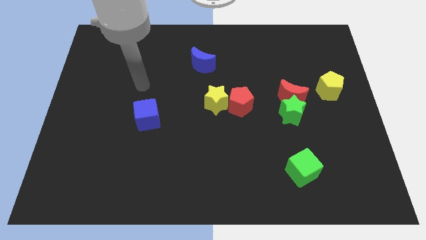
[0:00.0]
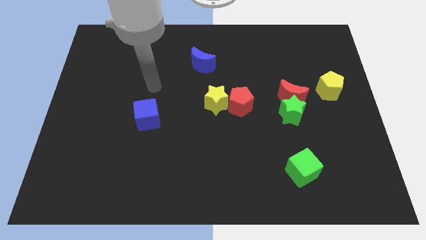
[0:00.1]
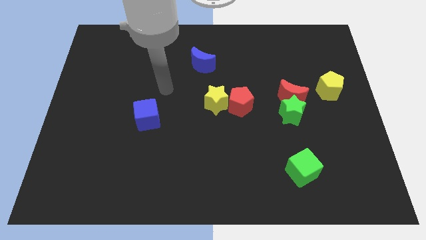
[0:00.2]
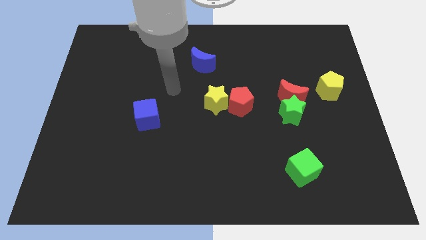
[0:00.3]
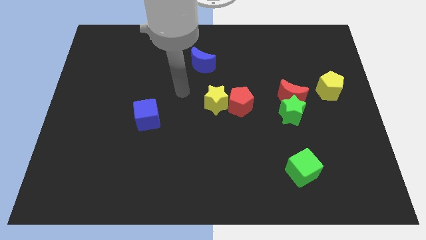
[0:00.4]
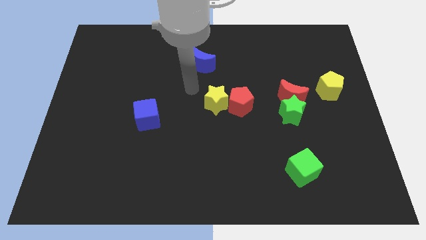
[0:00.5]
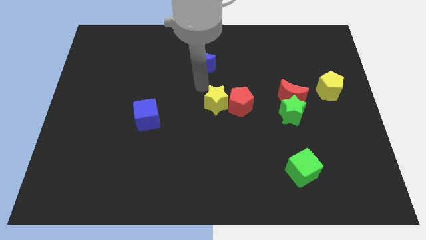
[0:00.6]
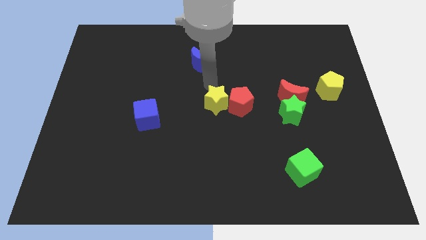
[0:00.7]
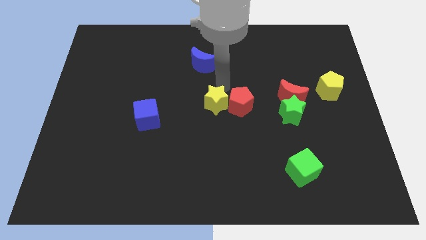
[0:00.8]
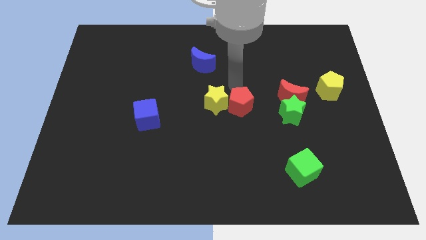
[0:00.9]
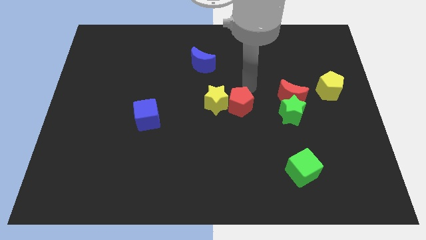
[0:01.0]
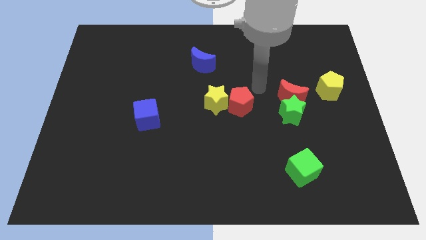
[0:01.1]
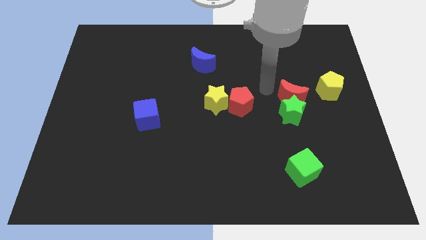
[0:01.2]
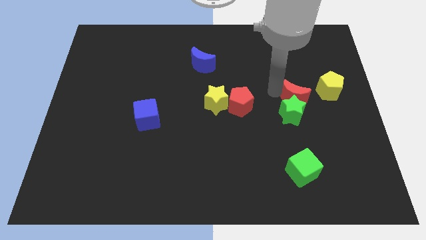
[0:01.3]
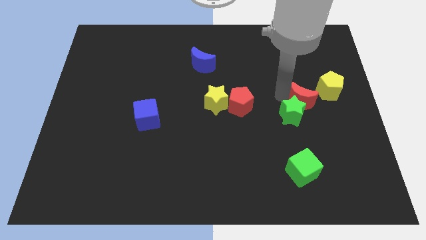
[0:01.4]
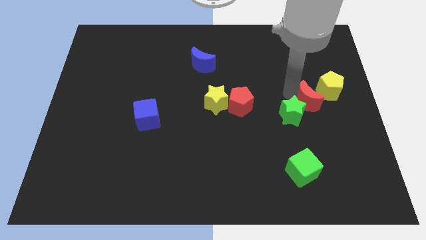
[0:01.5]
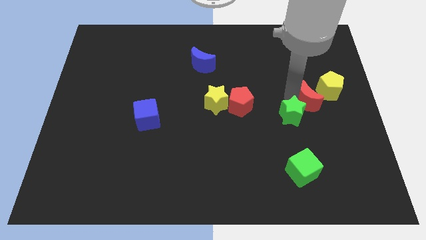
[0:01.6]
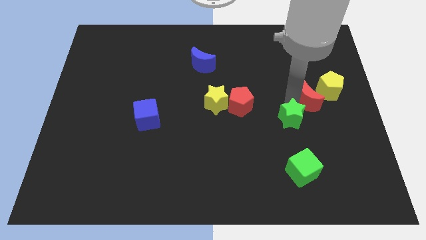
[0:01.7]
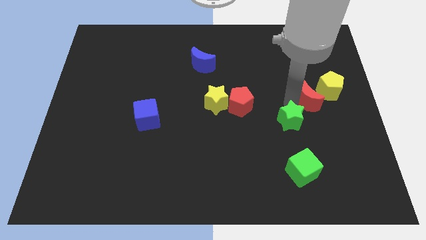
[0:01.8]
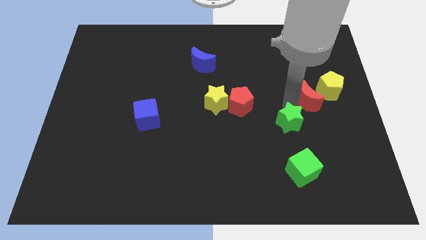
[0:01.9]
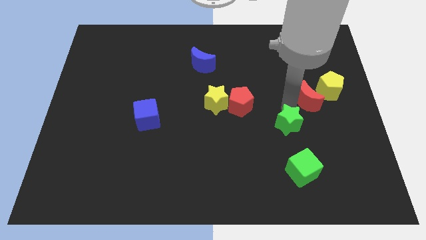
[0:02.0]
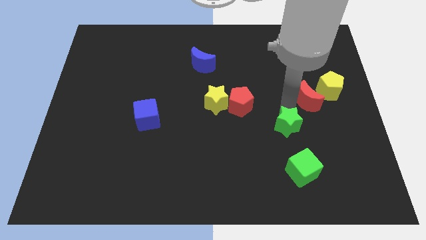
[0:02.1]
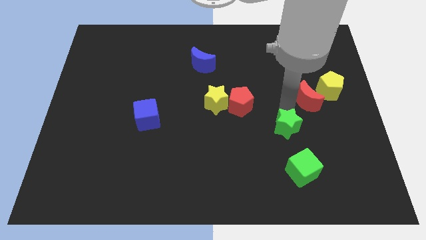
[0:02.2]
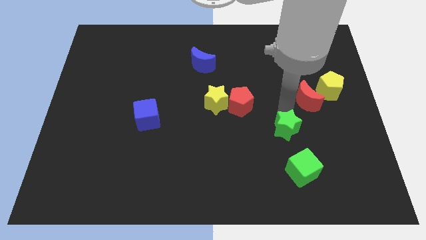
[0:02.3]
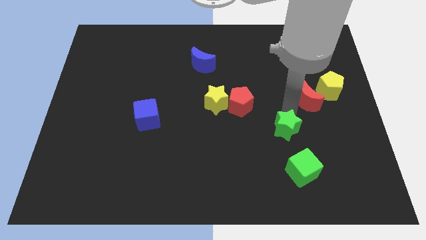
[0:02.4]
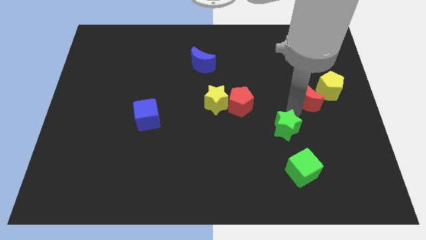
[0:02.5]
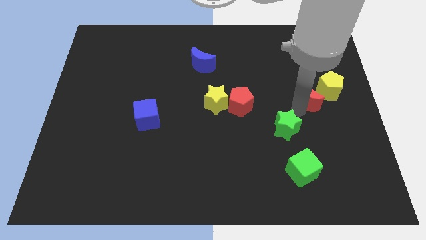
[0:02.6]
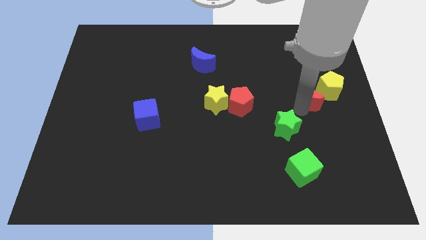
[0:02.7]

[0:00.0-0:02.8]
pull the green star apart from the red moon

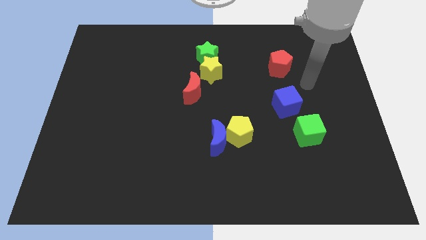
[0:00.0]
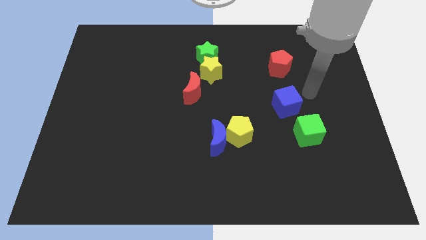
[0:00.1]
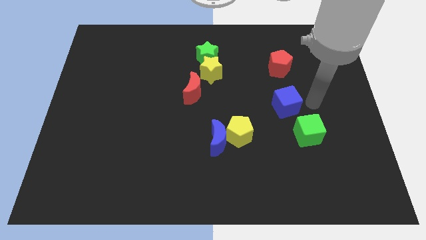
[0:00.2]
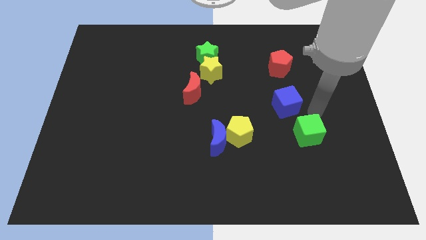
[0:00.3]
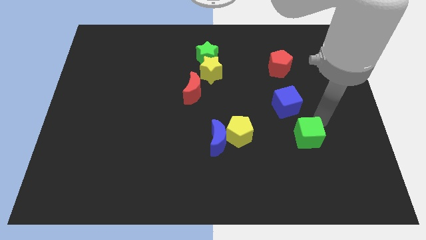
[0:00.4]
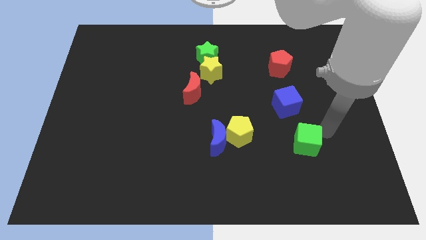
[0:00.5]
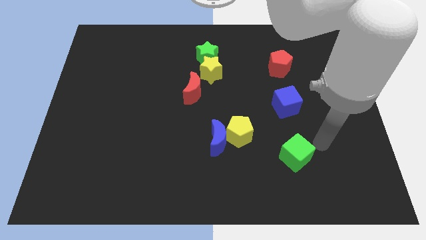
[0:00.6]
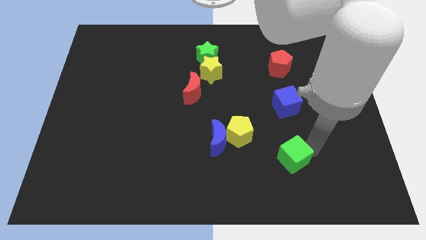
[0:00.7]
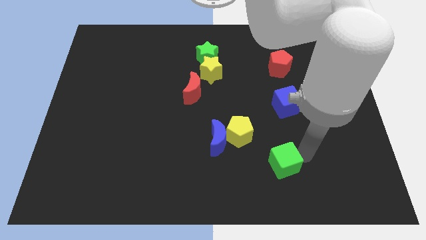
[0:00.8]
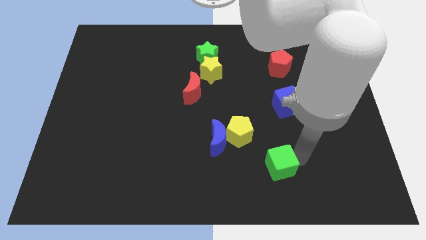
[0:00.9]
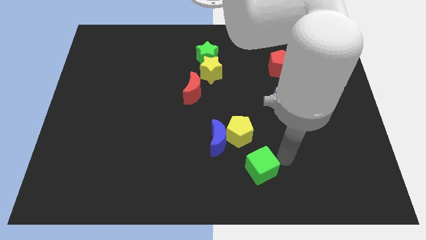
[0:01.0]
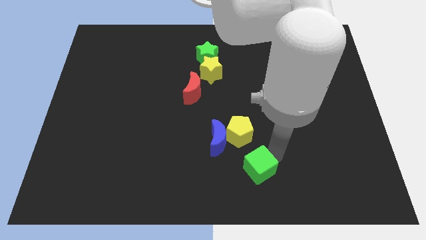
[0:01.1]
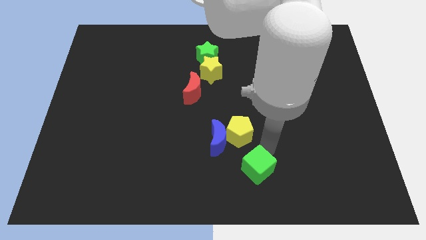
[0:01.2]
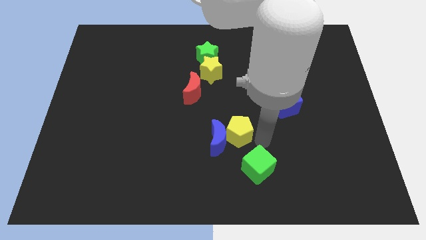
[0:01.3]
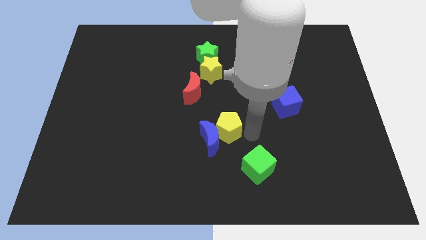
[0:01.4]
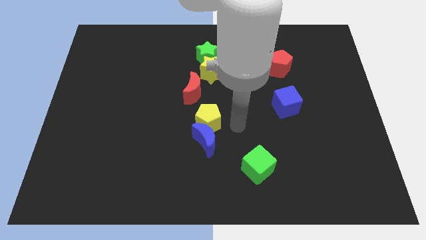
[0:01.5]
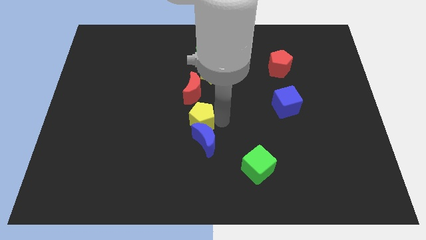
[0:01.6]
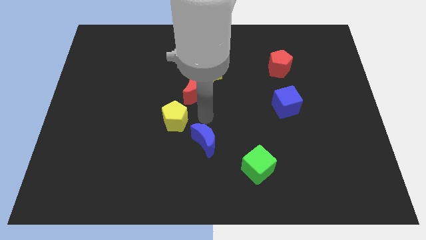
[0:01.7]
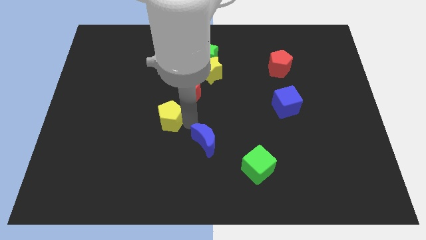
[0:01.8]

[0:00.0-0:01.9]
separate the blue moon from the yellow pentagon

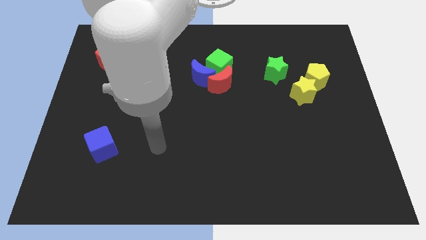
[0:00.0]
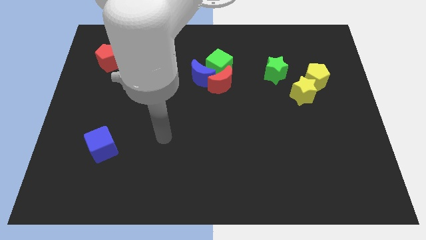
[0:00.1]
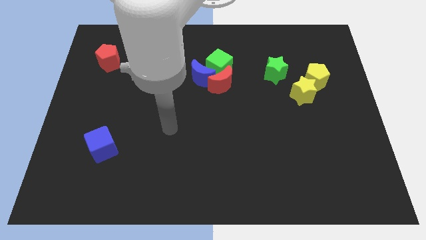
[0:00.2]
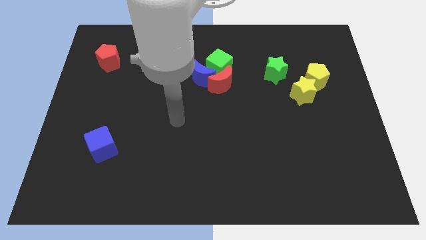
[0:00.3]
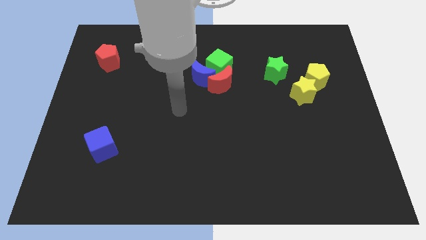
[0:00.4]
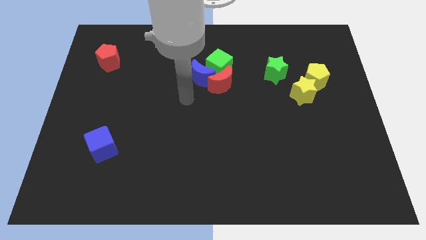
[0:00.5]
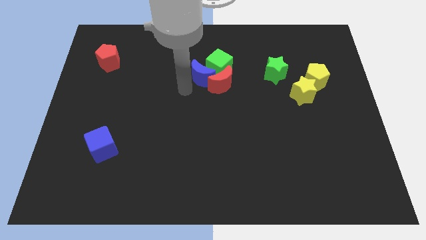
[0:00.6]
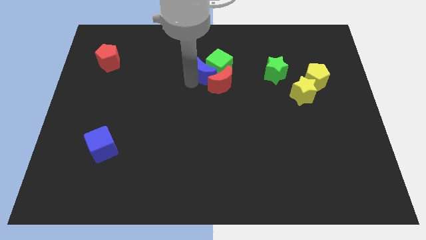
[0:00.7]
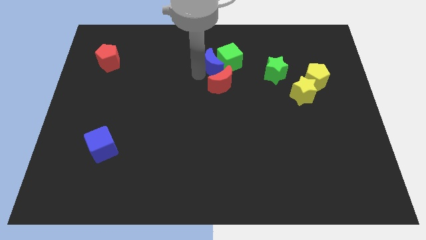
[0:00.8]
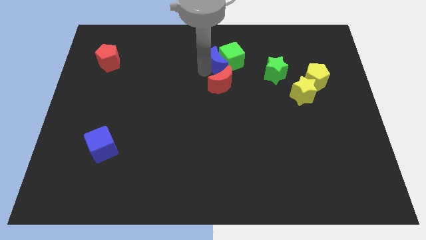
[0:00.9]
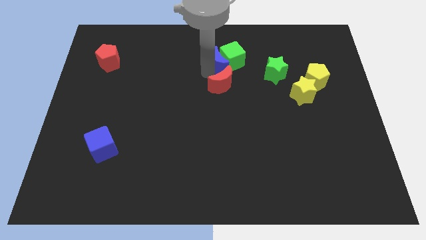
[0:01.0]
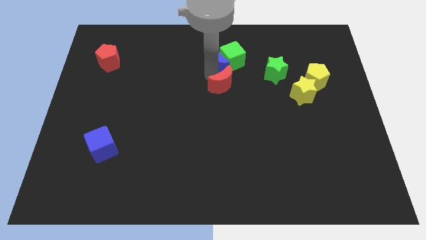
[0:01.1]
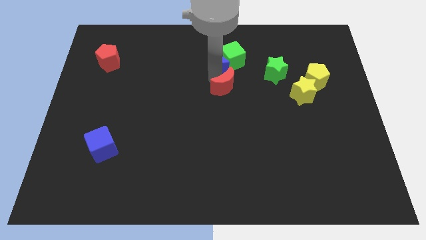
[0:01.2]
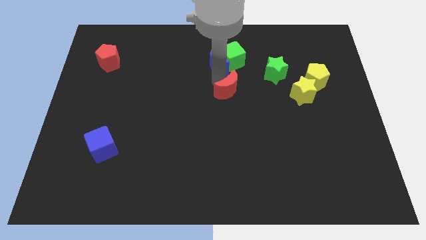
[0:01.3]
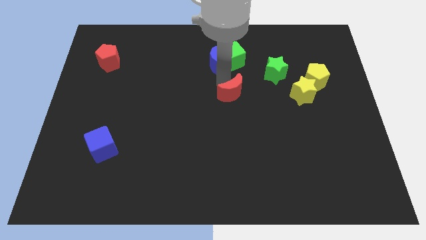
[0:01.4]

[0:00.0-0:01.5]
pull the red moon apart from the blue moon and green cube

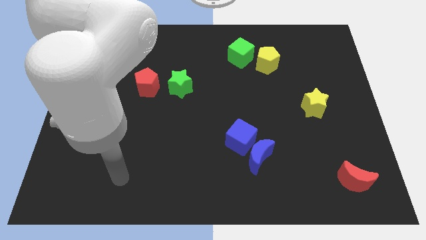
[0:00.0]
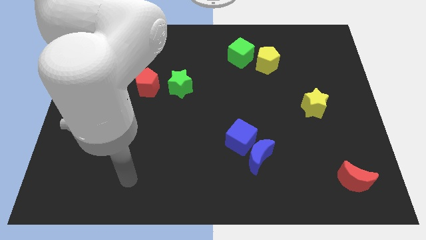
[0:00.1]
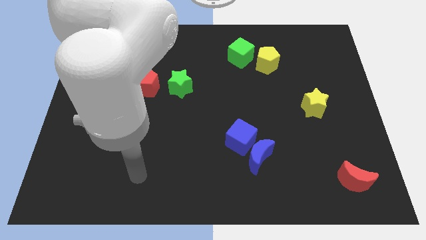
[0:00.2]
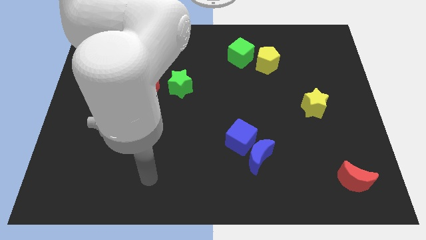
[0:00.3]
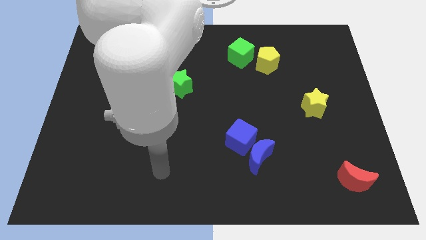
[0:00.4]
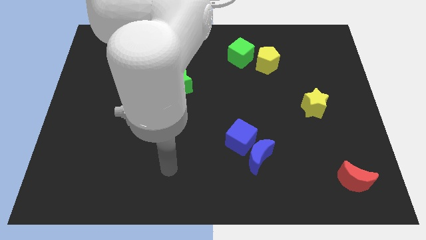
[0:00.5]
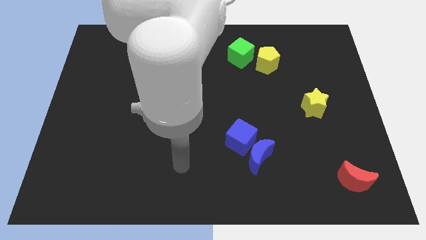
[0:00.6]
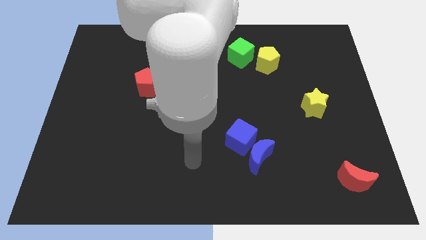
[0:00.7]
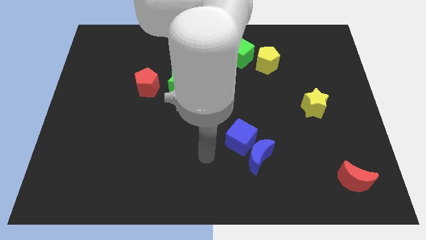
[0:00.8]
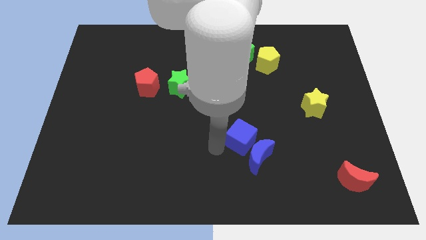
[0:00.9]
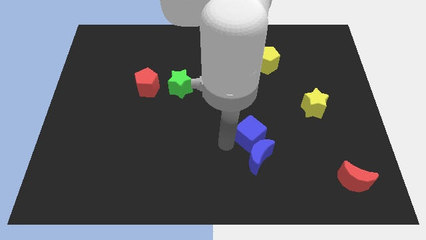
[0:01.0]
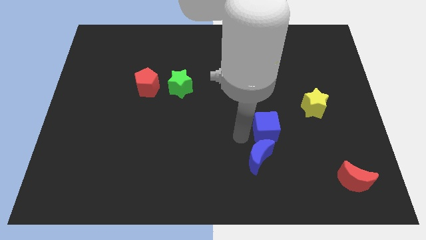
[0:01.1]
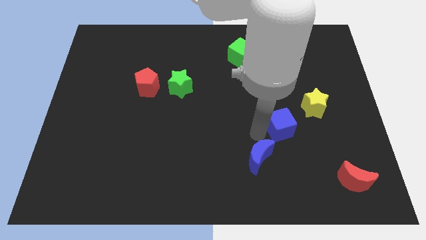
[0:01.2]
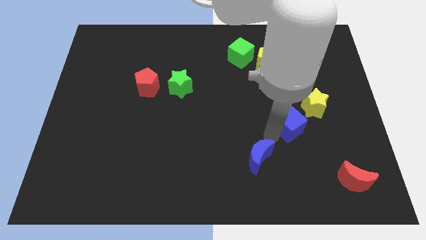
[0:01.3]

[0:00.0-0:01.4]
separate the blue moon from the blue cube

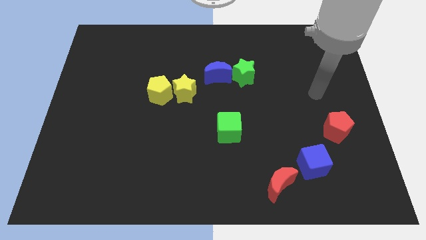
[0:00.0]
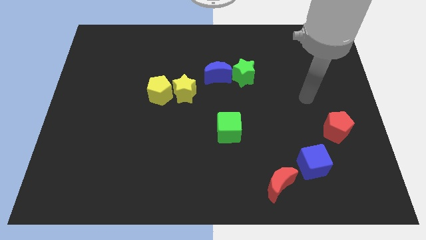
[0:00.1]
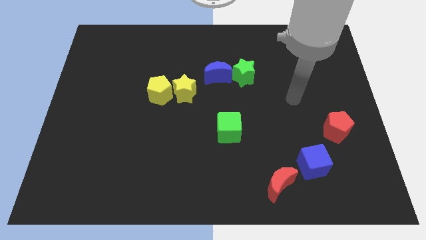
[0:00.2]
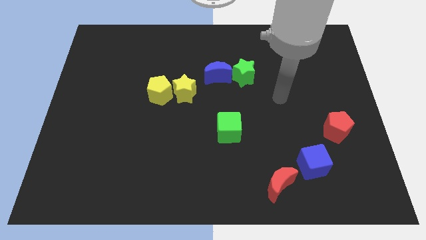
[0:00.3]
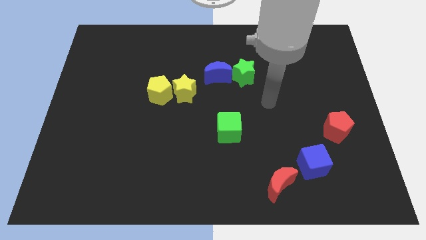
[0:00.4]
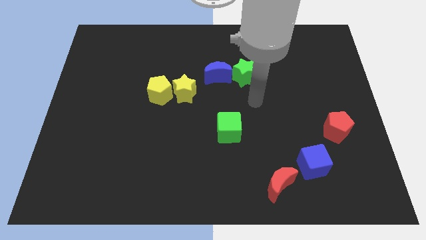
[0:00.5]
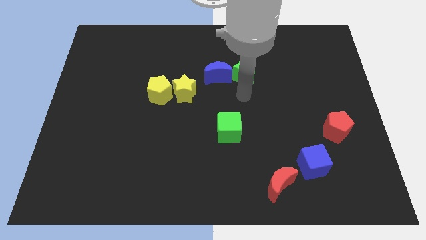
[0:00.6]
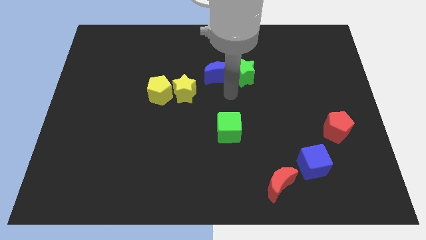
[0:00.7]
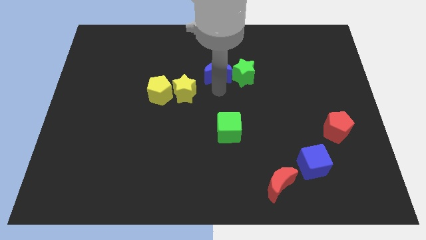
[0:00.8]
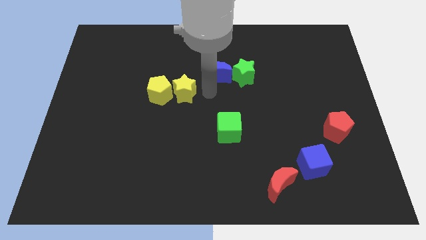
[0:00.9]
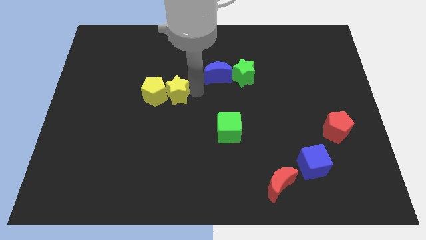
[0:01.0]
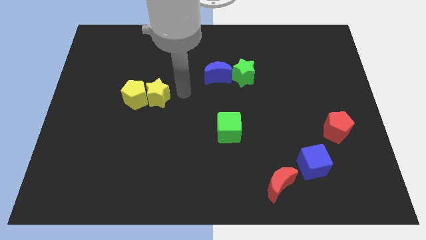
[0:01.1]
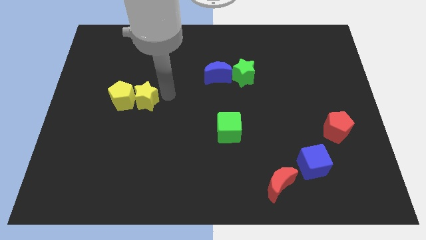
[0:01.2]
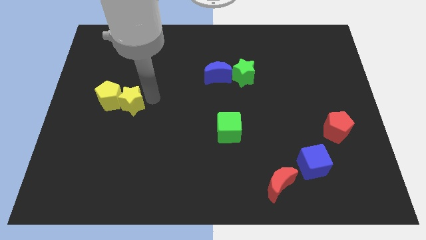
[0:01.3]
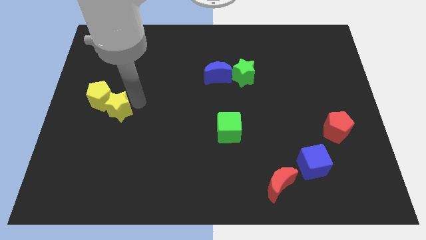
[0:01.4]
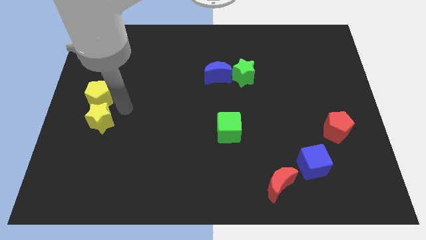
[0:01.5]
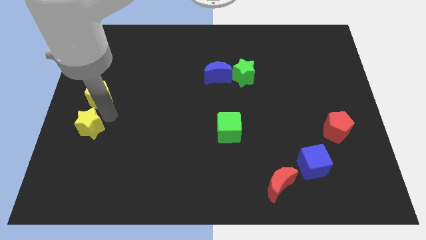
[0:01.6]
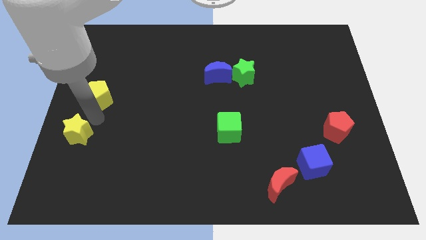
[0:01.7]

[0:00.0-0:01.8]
pull the yellow pentagon apart from the yellow star

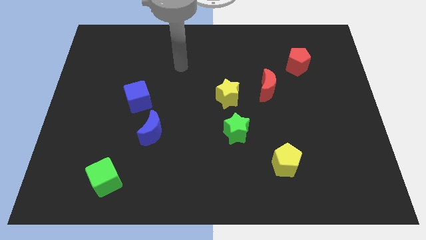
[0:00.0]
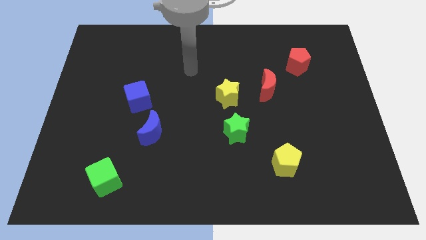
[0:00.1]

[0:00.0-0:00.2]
move the red moon away from the yellow star
